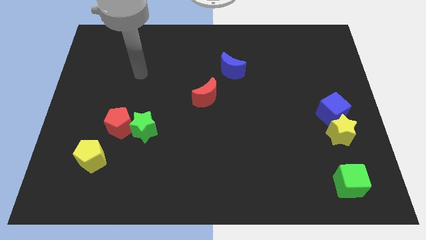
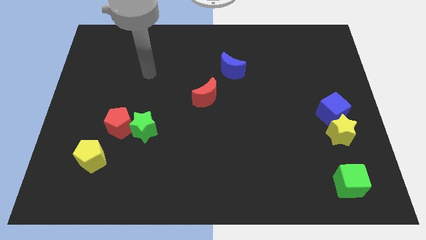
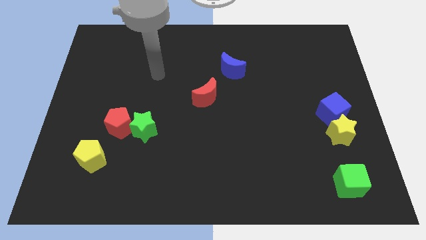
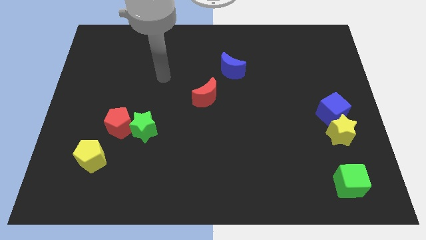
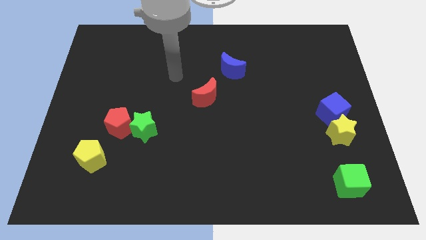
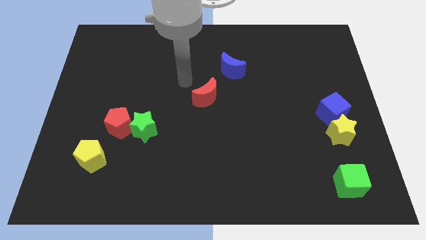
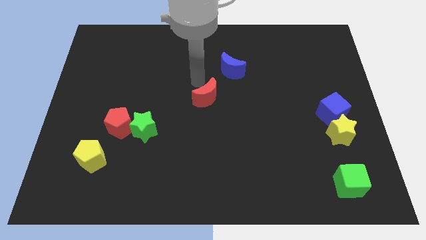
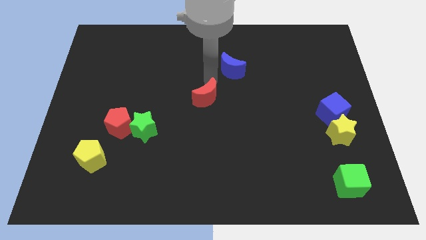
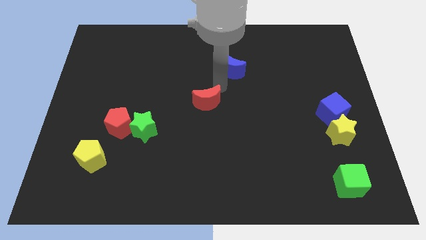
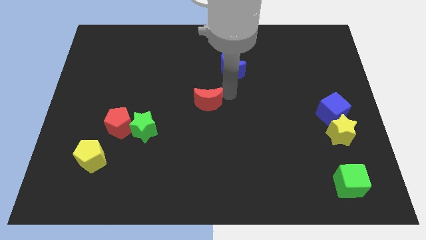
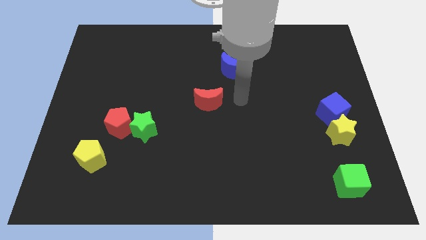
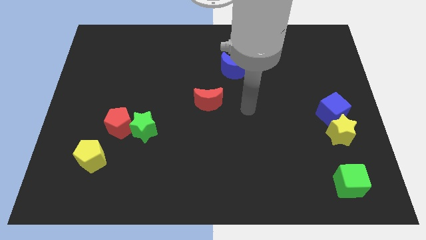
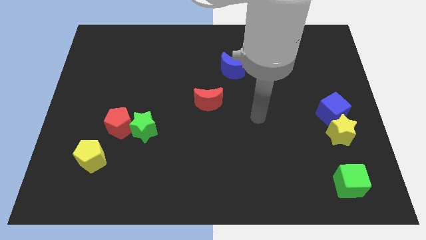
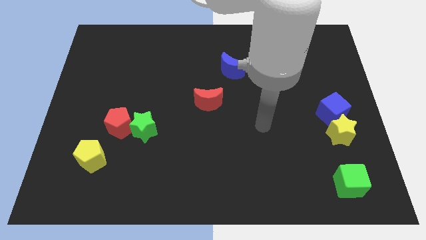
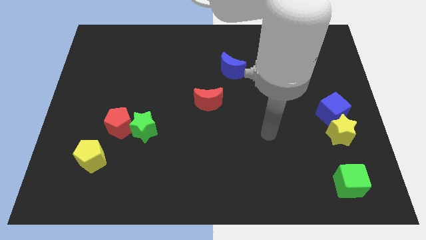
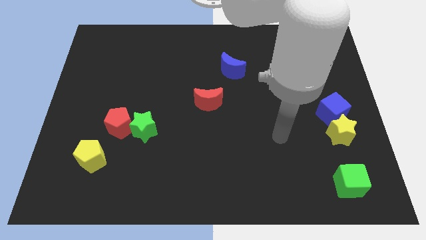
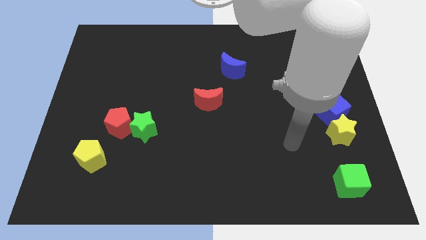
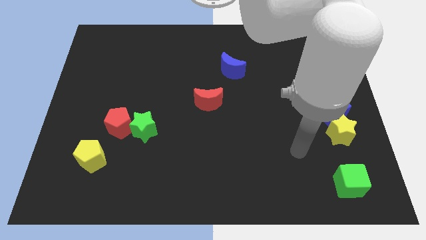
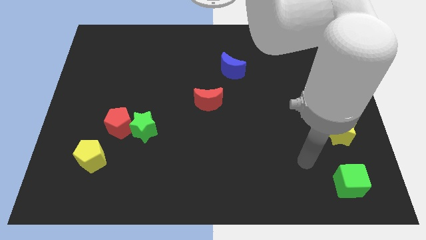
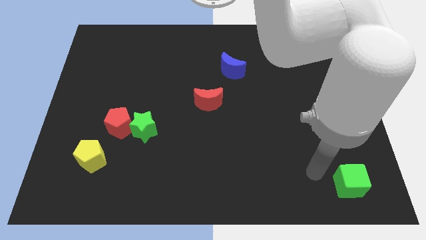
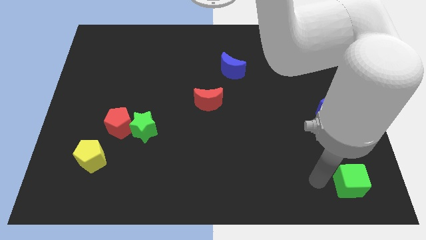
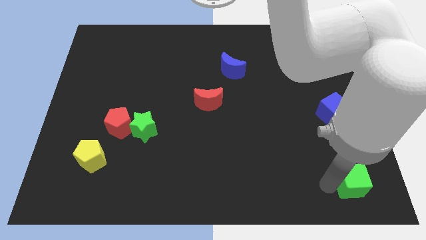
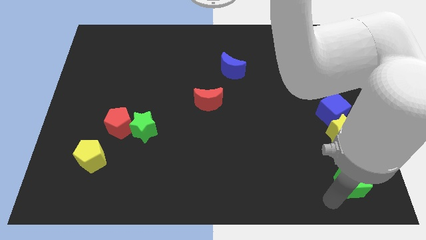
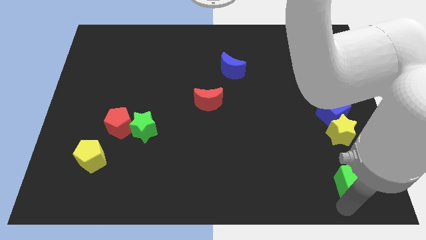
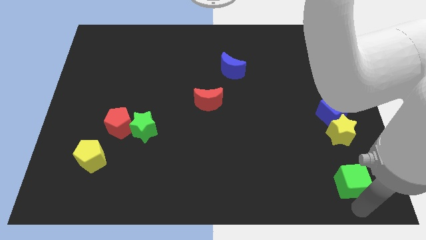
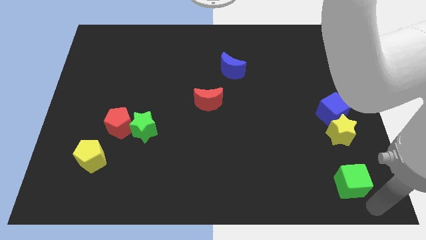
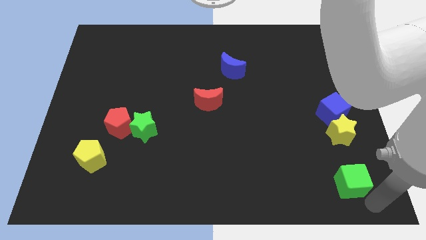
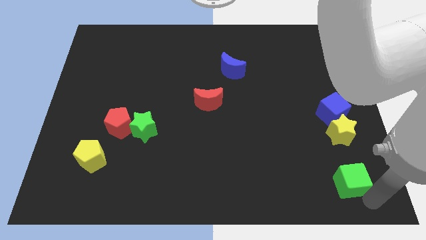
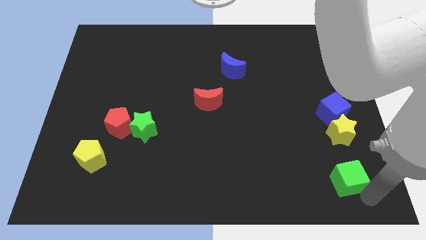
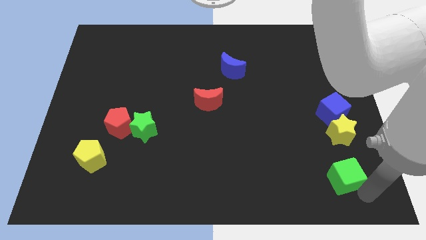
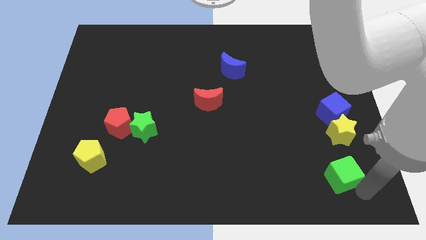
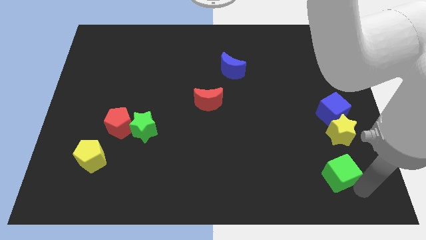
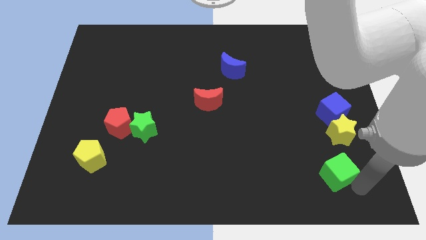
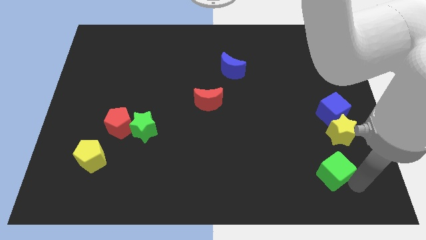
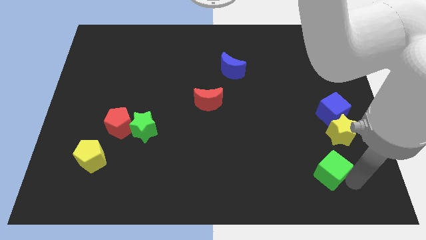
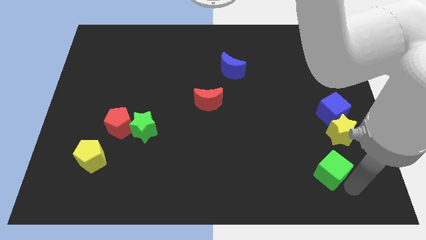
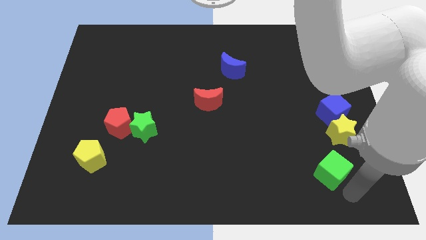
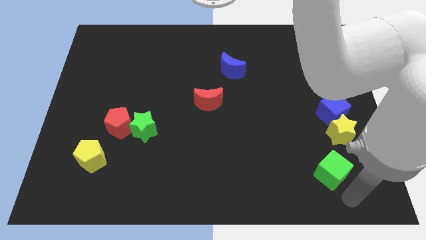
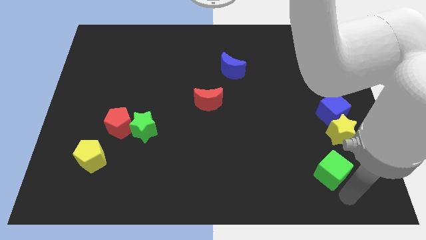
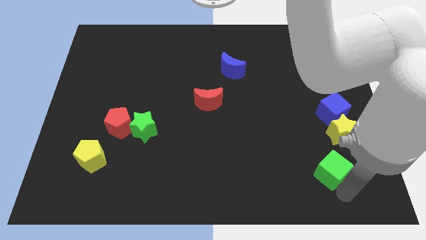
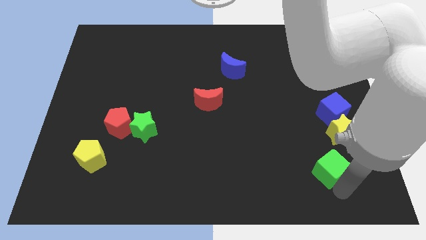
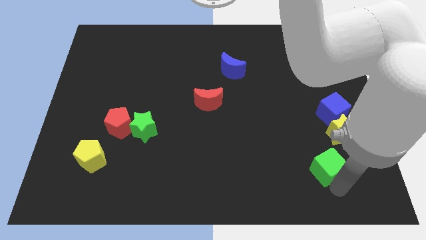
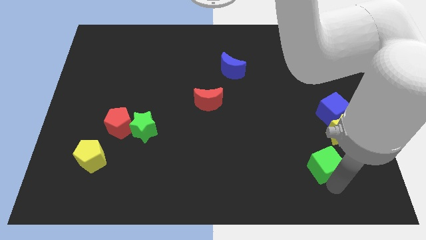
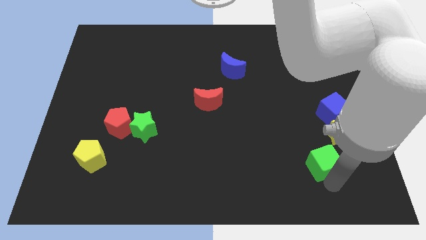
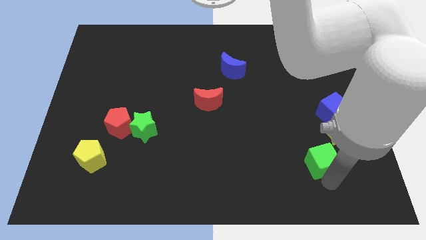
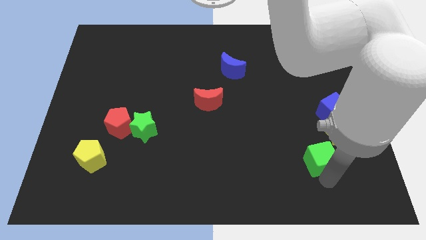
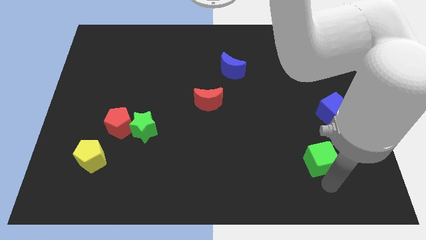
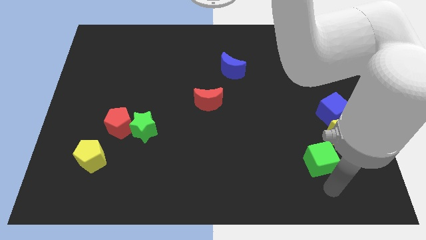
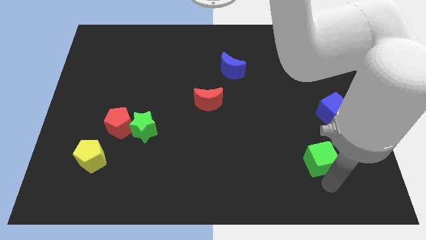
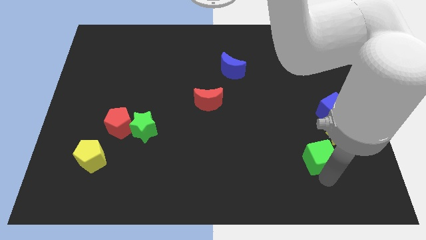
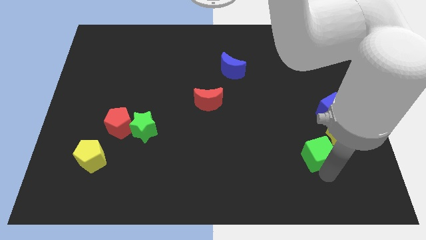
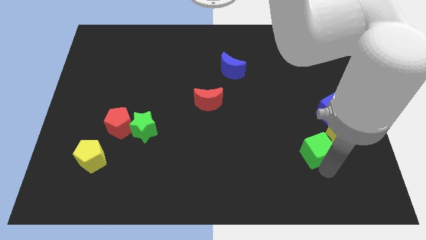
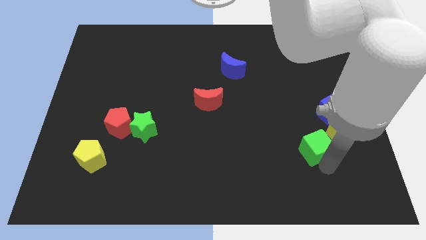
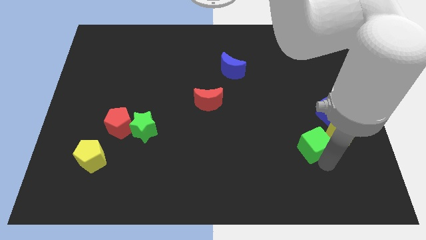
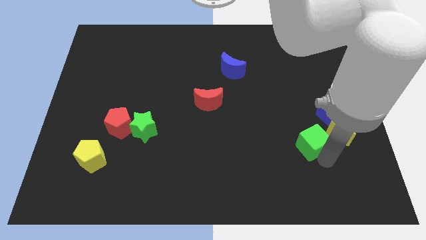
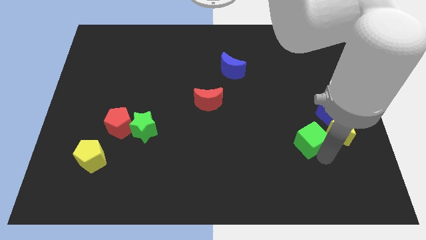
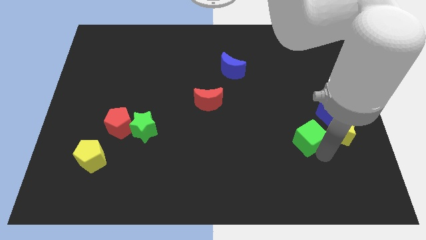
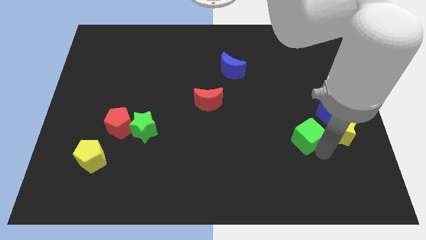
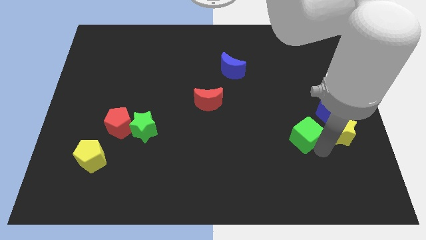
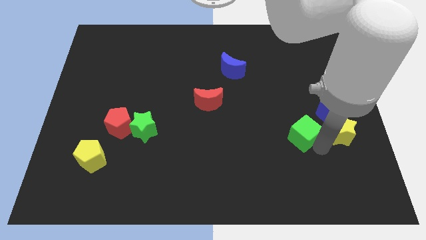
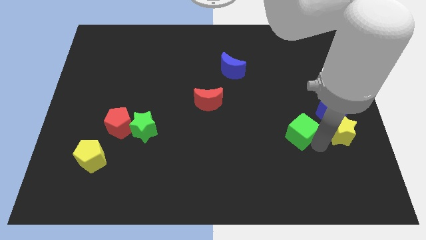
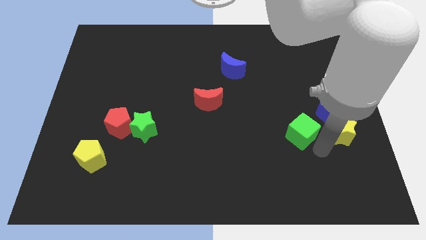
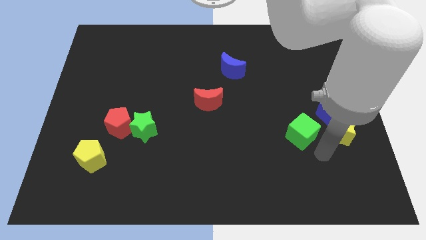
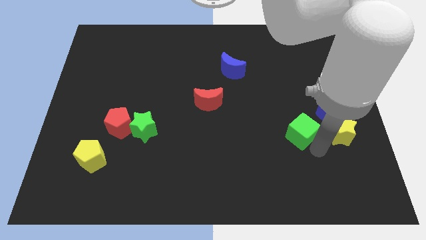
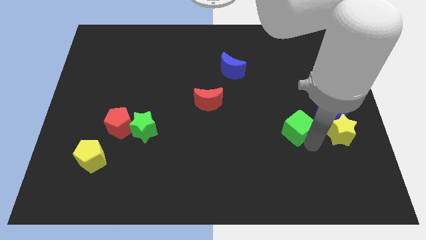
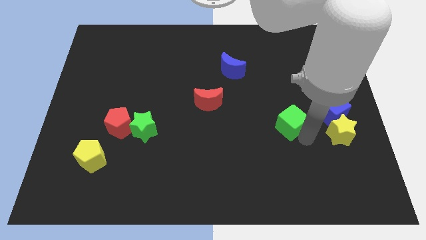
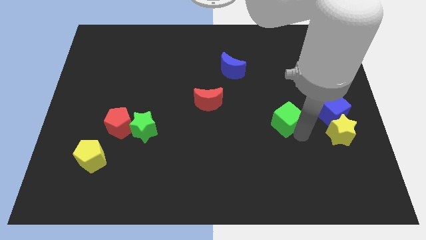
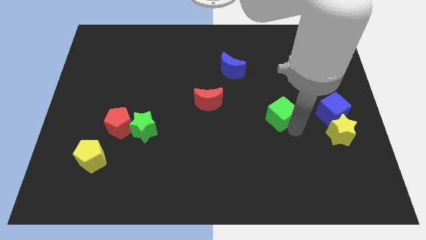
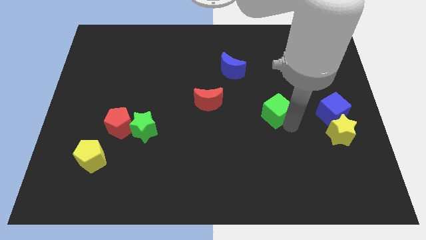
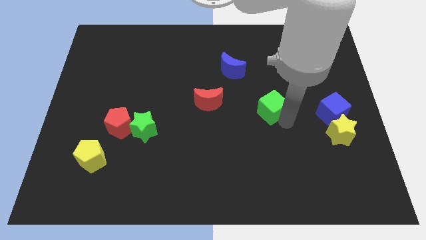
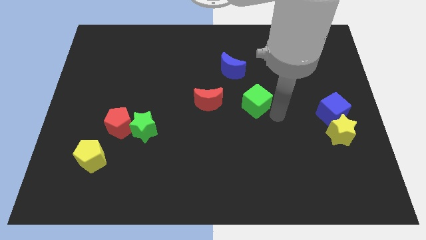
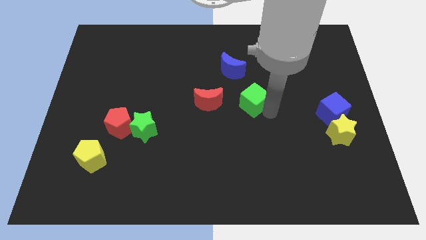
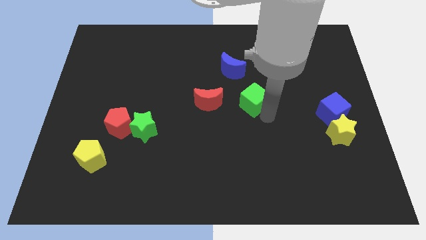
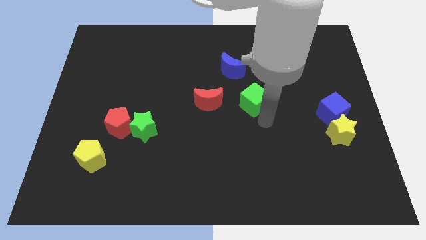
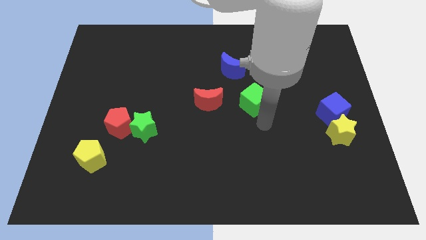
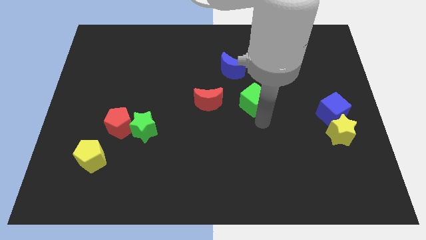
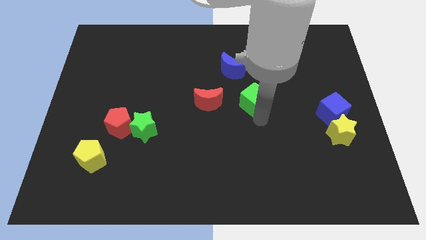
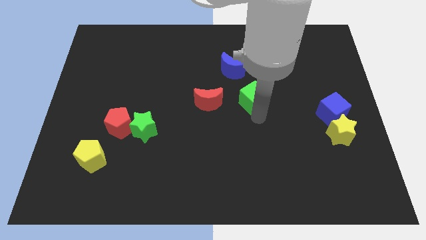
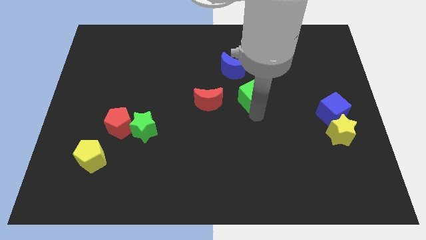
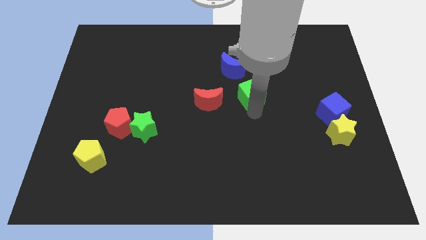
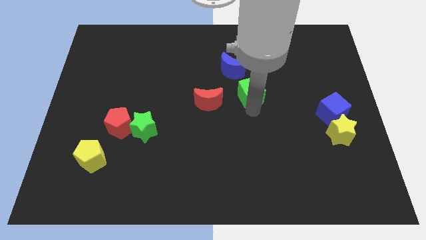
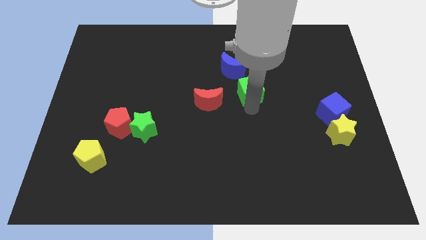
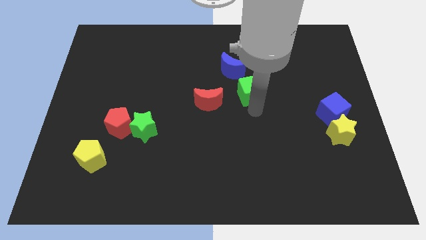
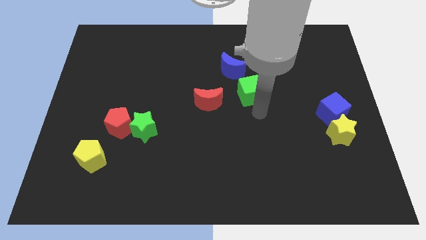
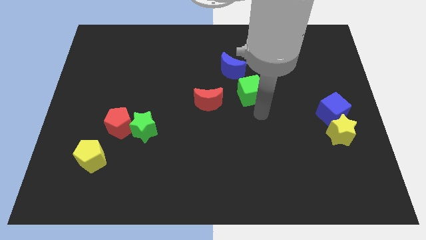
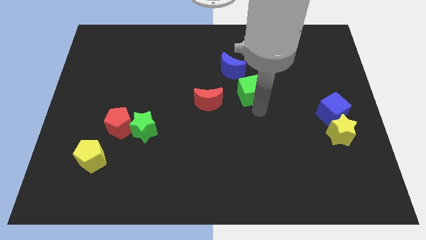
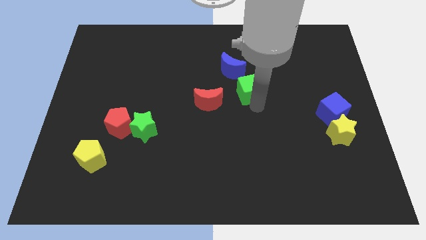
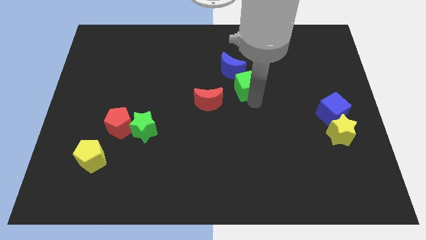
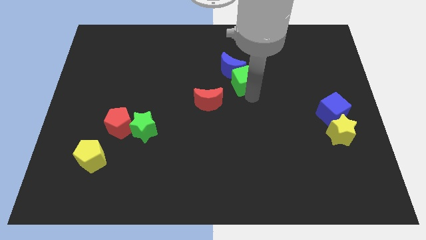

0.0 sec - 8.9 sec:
push the green cube next to the blue moon
